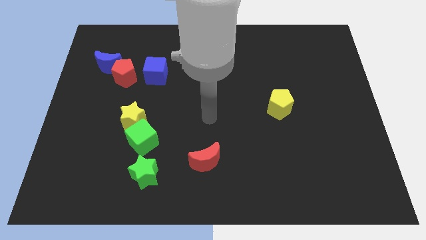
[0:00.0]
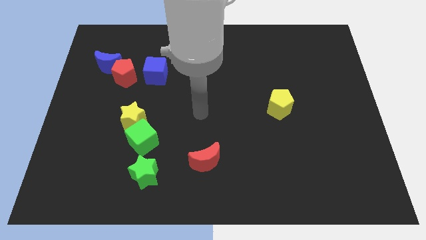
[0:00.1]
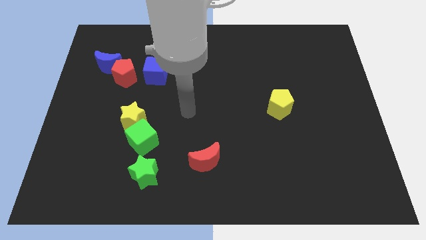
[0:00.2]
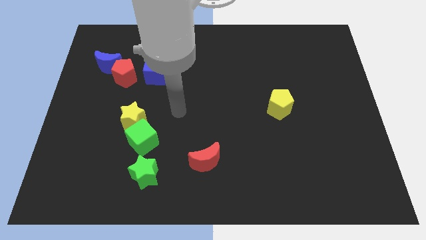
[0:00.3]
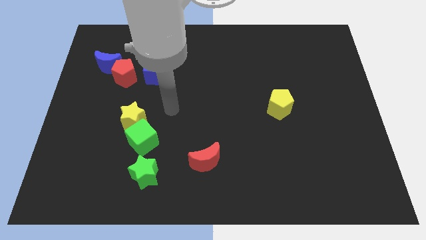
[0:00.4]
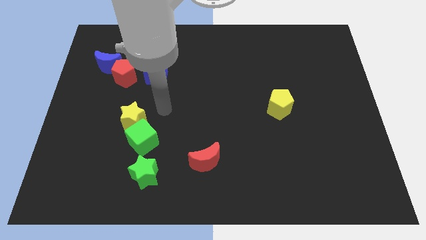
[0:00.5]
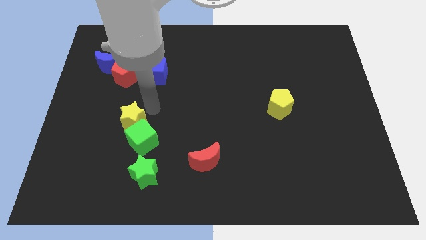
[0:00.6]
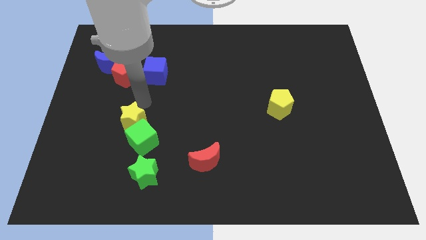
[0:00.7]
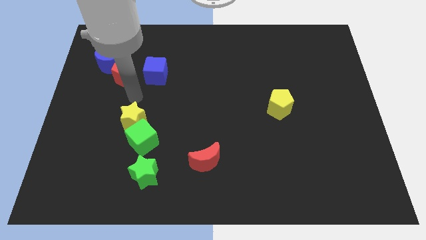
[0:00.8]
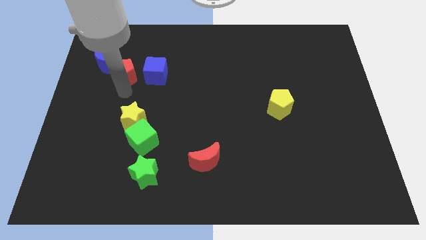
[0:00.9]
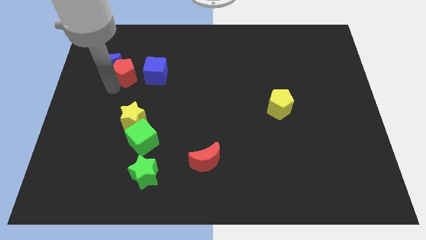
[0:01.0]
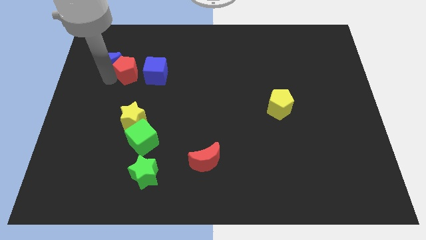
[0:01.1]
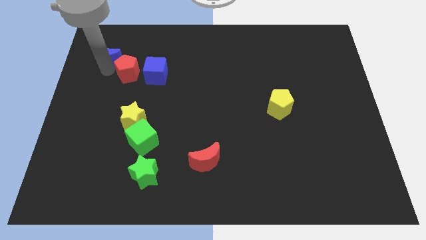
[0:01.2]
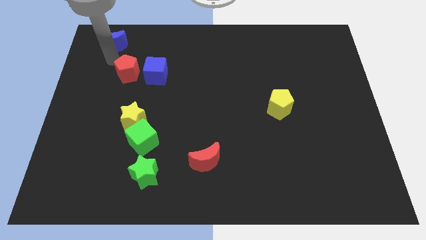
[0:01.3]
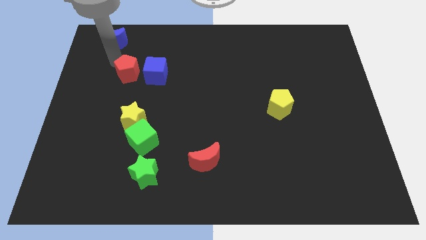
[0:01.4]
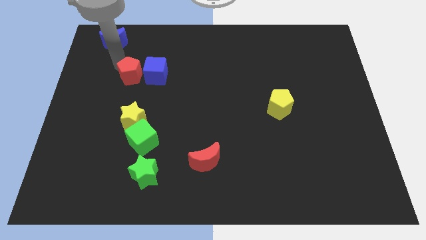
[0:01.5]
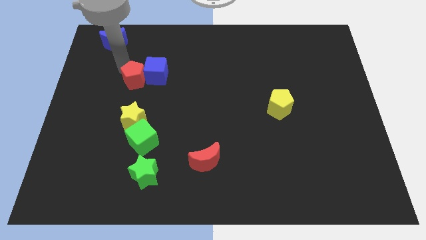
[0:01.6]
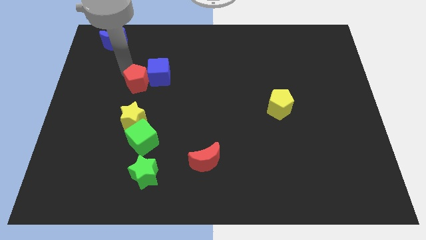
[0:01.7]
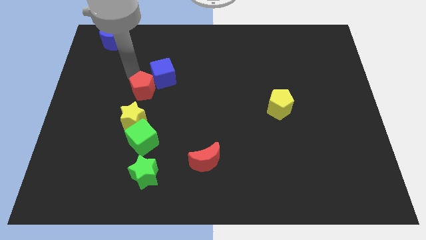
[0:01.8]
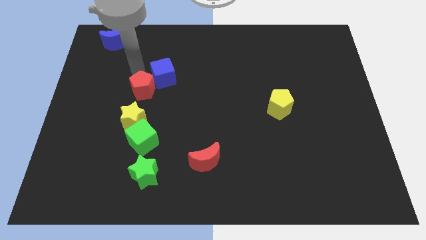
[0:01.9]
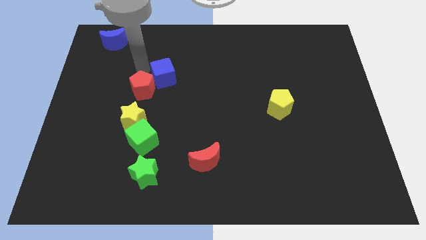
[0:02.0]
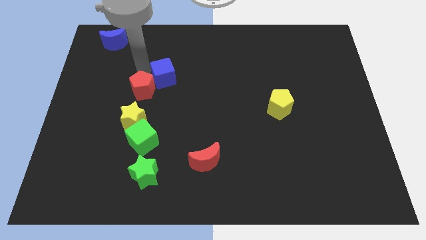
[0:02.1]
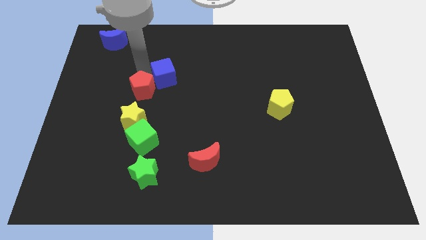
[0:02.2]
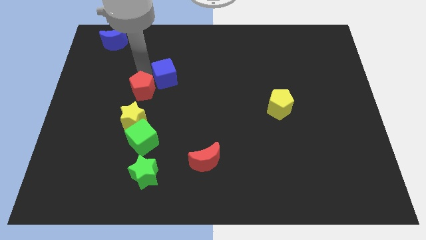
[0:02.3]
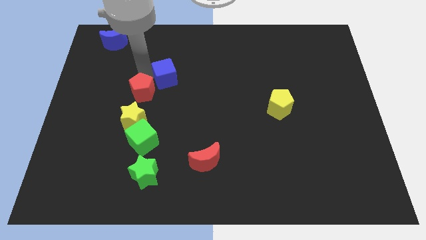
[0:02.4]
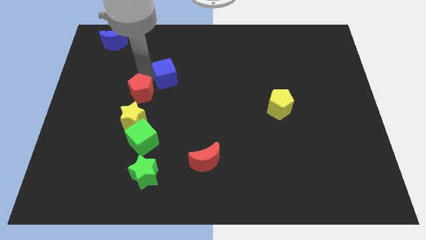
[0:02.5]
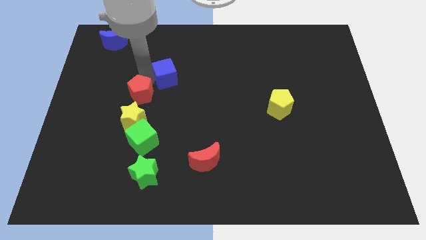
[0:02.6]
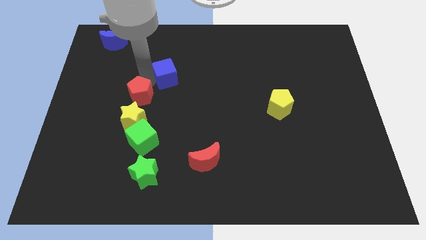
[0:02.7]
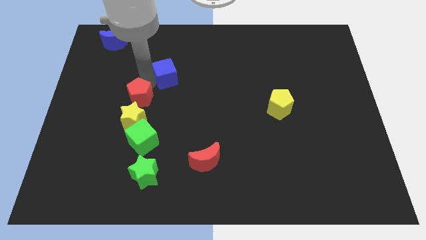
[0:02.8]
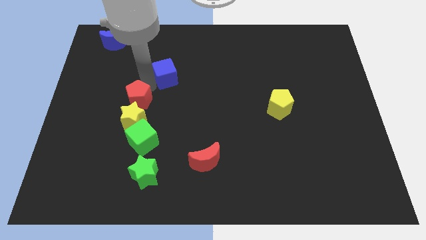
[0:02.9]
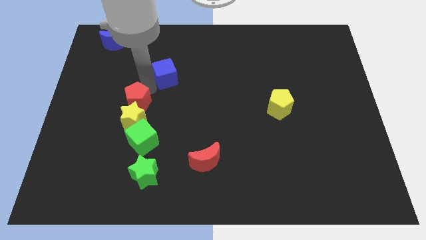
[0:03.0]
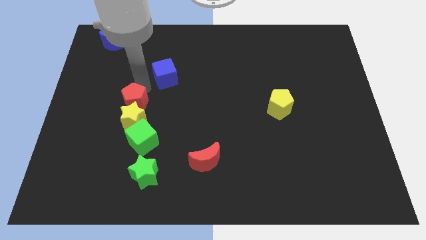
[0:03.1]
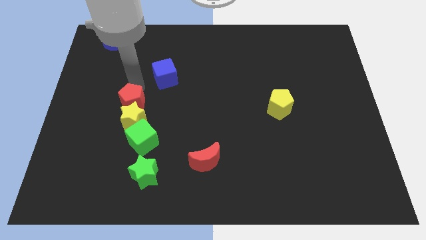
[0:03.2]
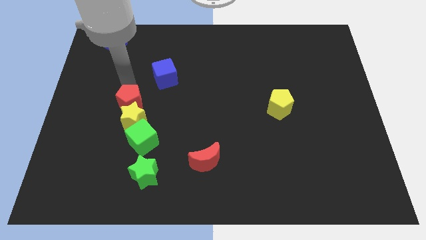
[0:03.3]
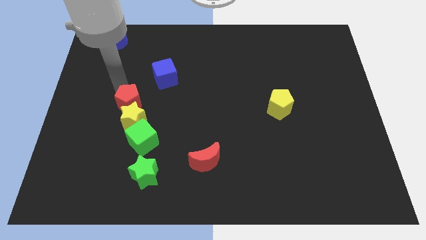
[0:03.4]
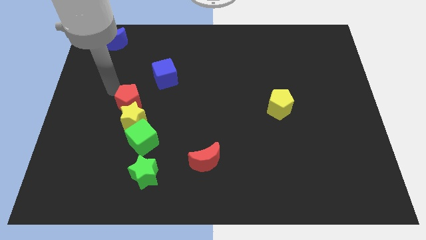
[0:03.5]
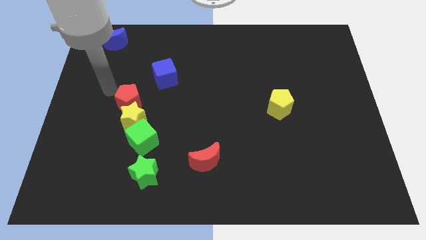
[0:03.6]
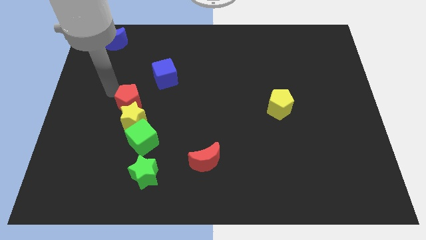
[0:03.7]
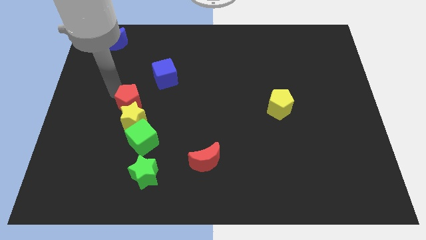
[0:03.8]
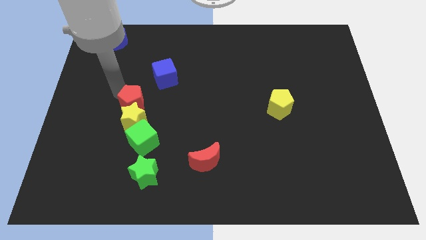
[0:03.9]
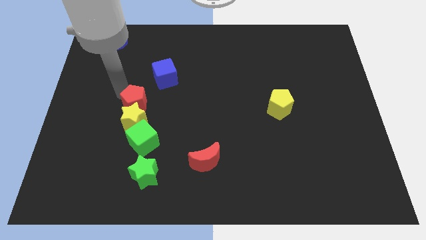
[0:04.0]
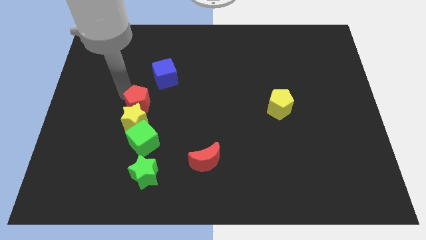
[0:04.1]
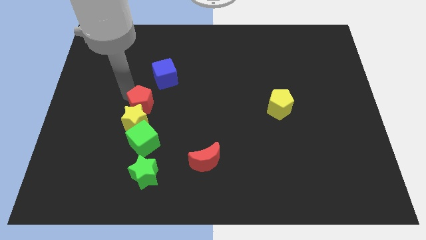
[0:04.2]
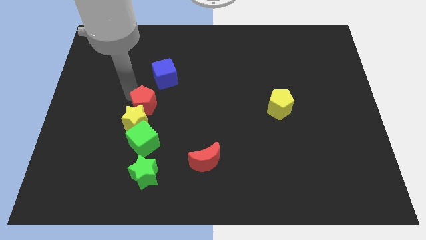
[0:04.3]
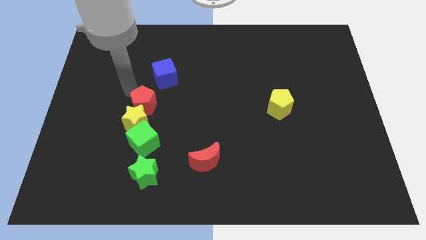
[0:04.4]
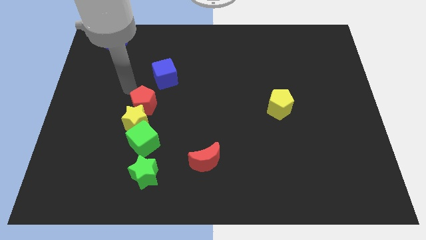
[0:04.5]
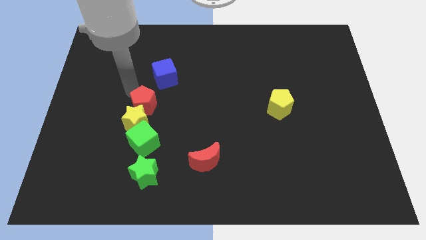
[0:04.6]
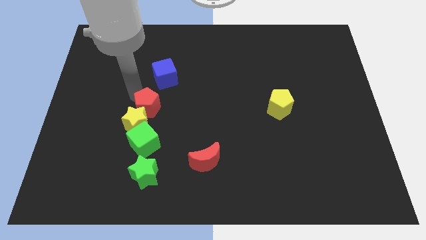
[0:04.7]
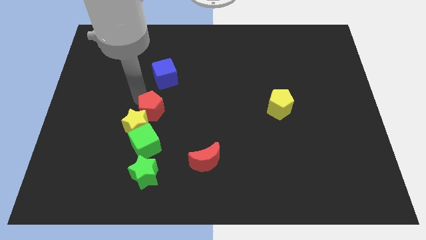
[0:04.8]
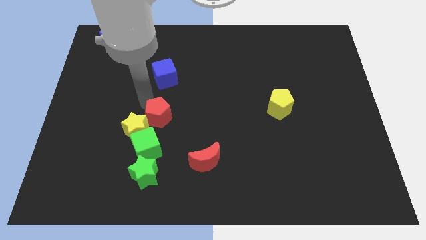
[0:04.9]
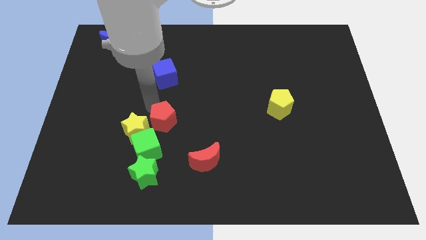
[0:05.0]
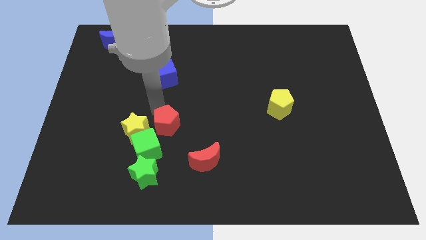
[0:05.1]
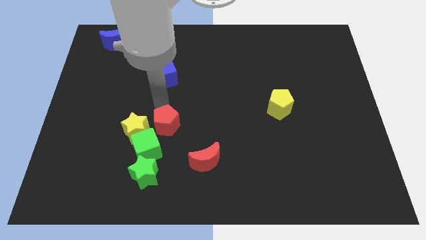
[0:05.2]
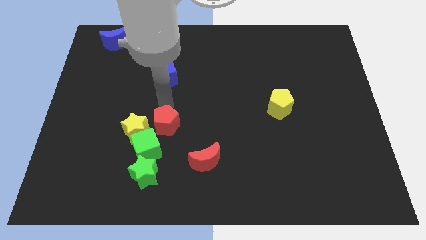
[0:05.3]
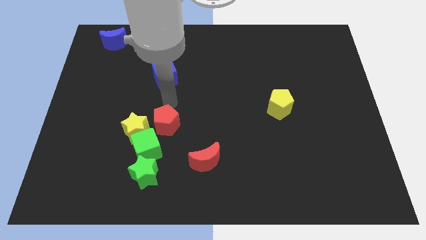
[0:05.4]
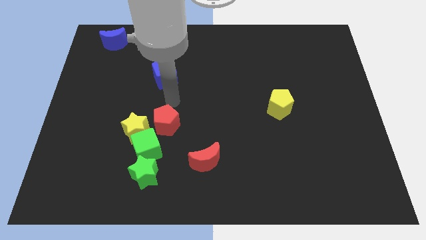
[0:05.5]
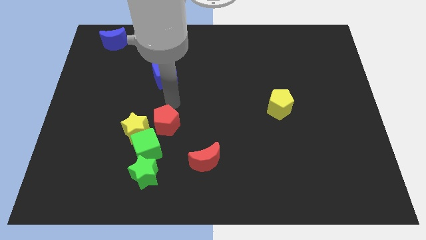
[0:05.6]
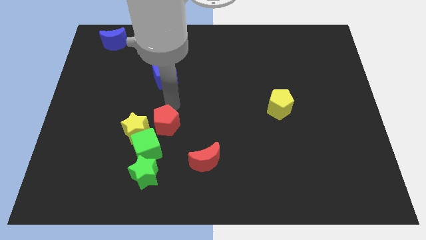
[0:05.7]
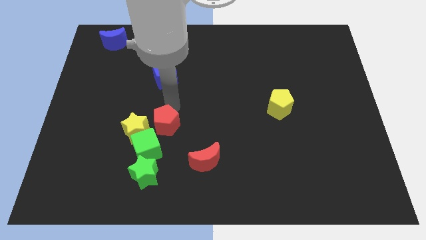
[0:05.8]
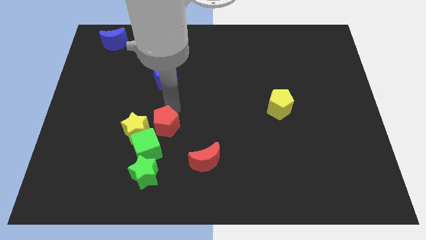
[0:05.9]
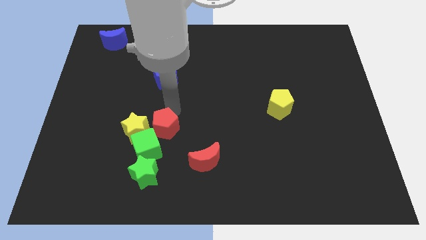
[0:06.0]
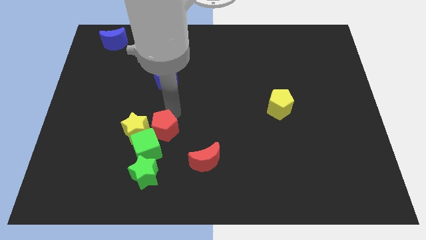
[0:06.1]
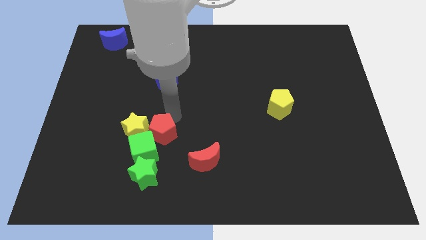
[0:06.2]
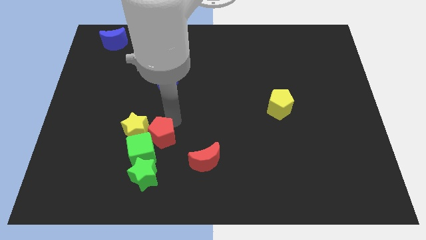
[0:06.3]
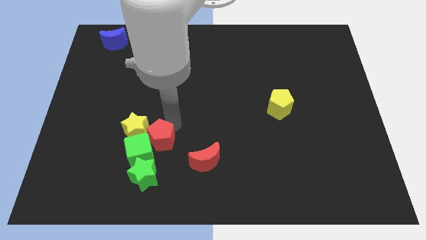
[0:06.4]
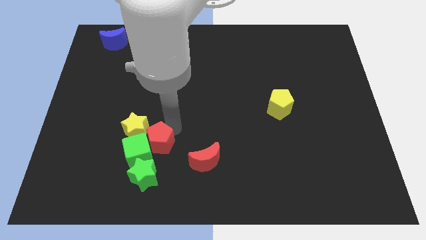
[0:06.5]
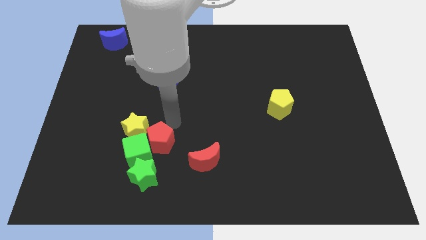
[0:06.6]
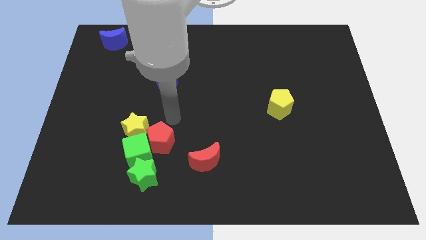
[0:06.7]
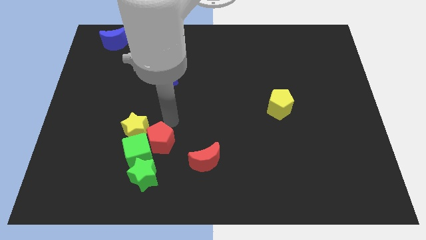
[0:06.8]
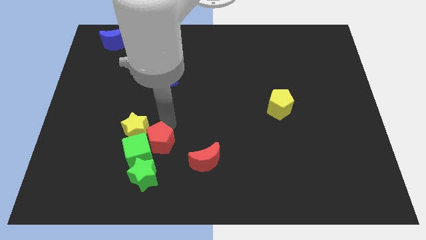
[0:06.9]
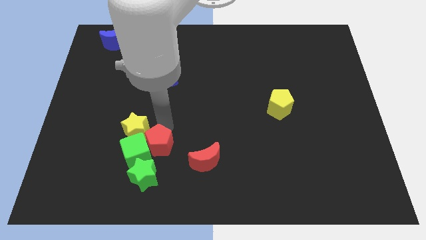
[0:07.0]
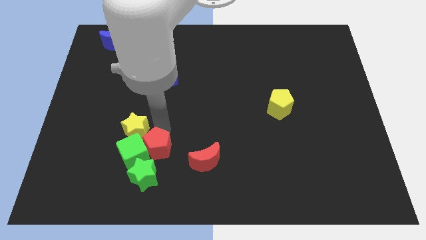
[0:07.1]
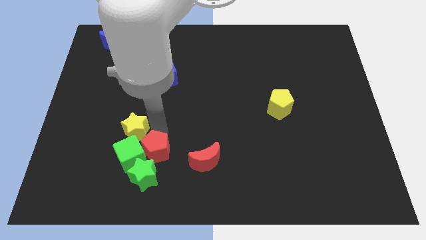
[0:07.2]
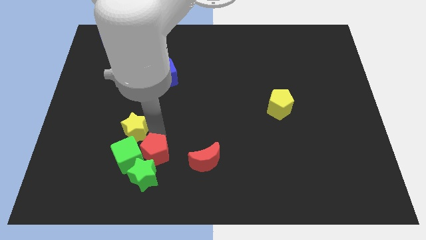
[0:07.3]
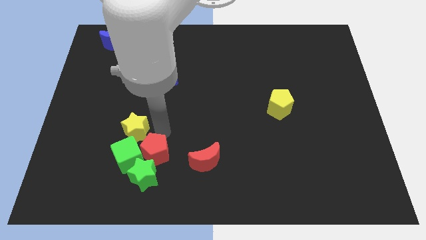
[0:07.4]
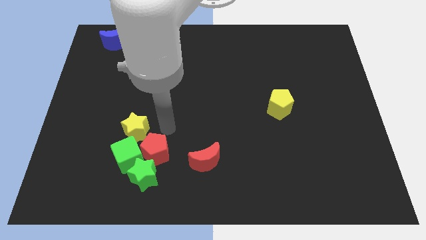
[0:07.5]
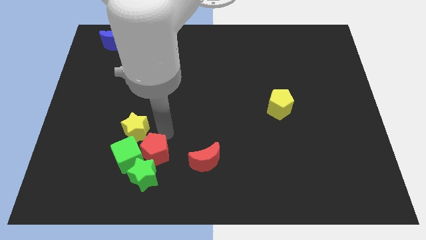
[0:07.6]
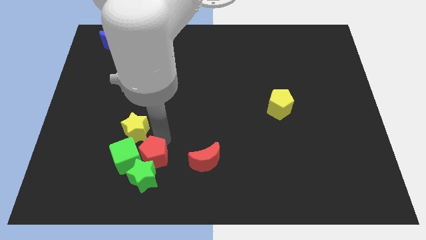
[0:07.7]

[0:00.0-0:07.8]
slide the red pentagon next to the green star
